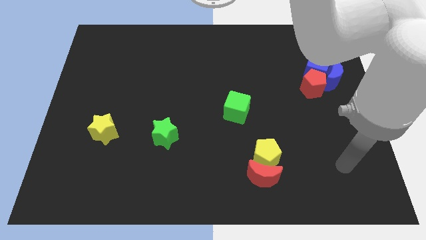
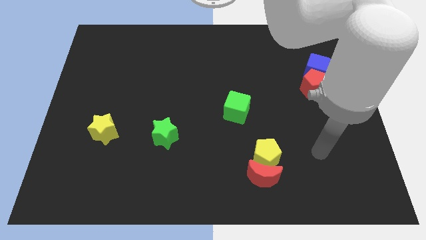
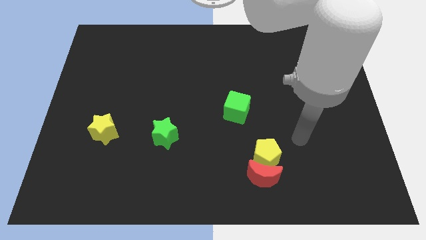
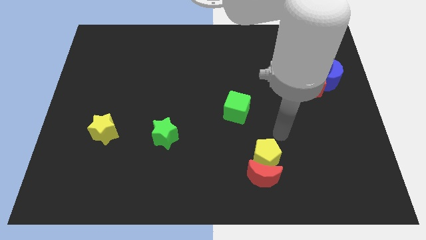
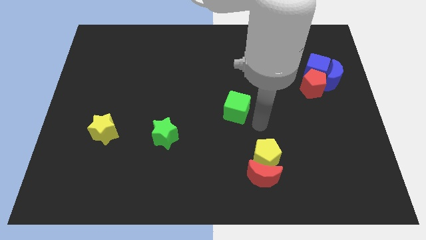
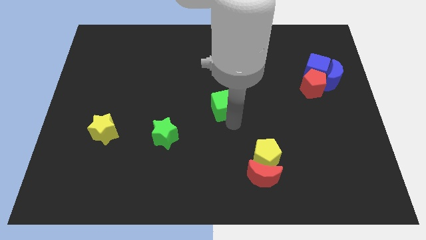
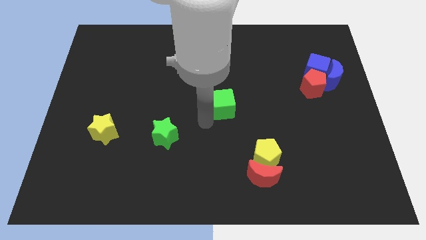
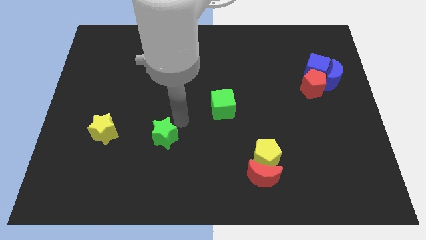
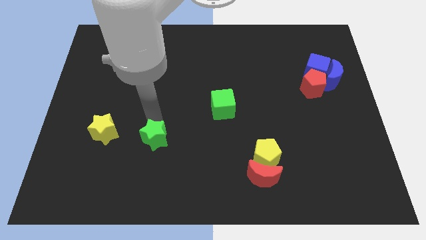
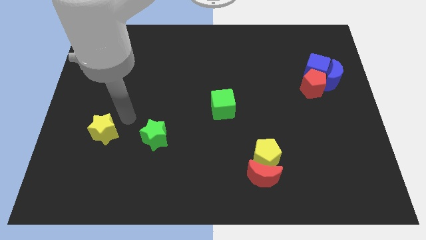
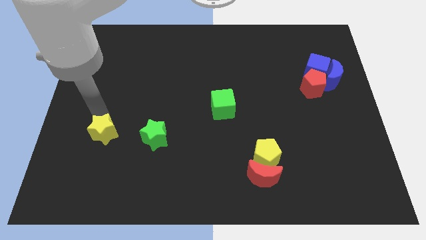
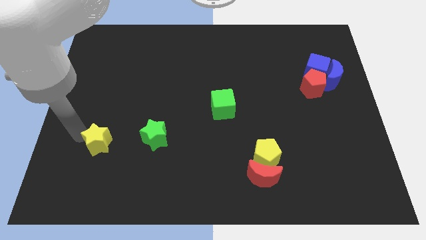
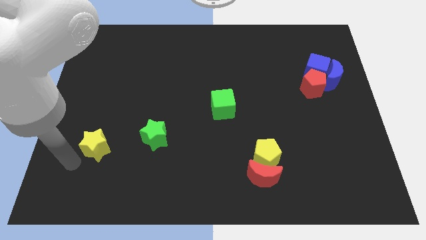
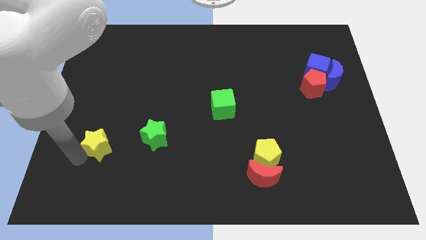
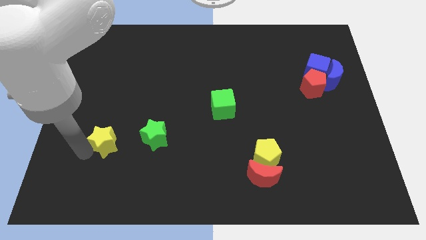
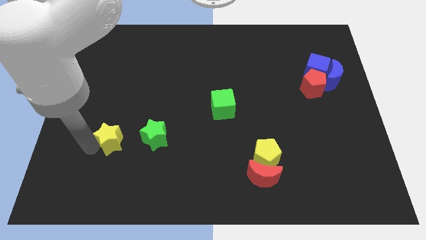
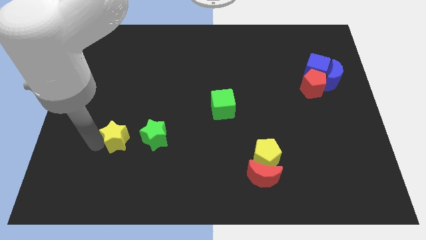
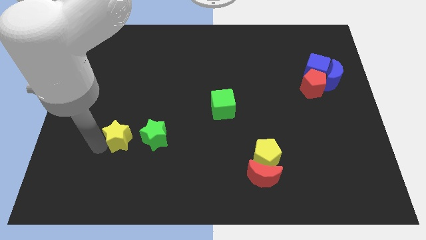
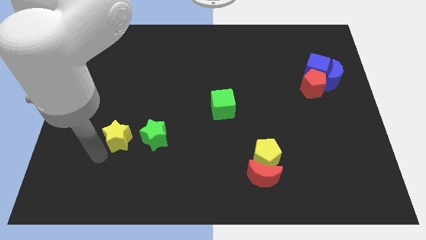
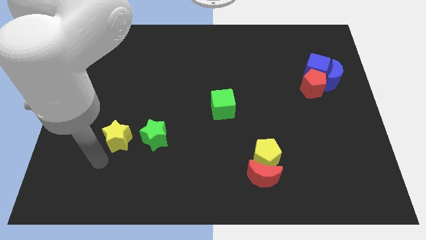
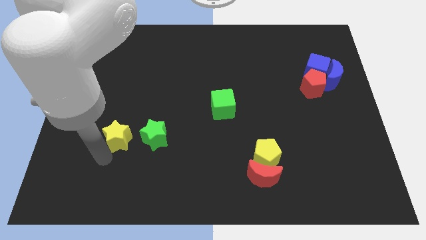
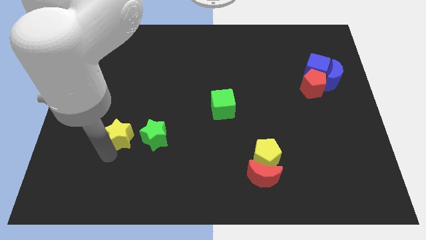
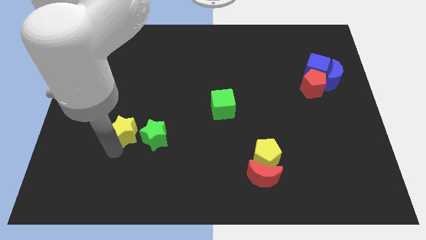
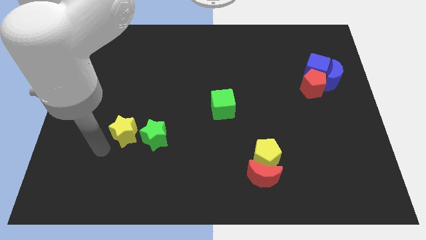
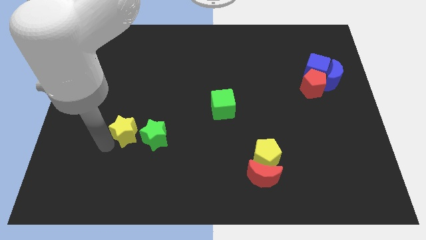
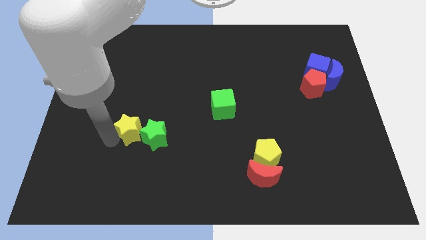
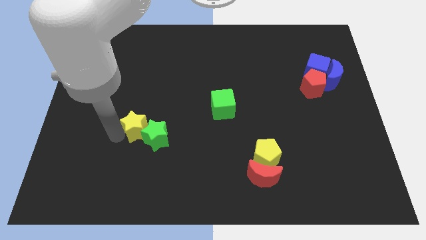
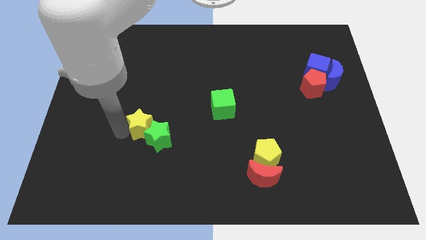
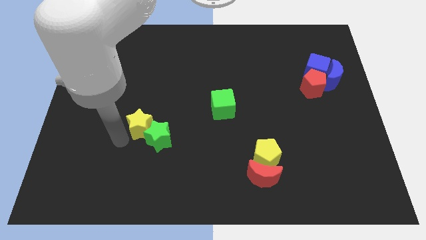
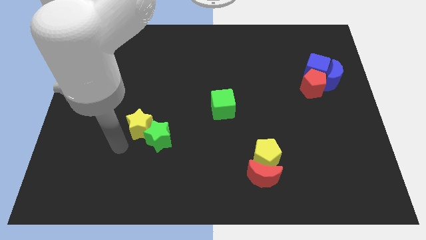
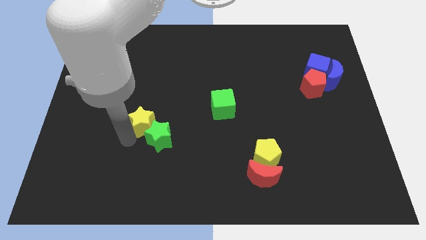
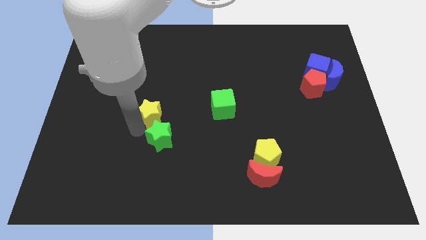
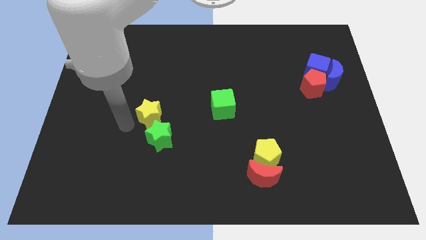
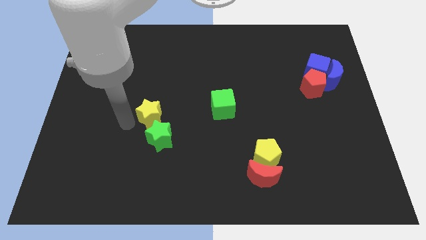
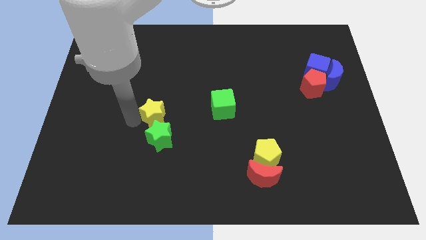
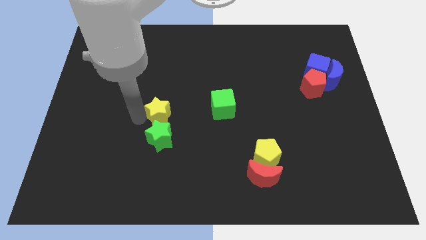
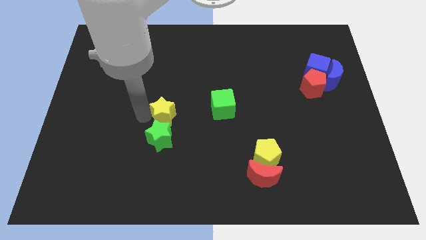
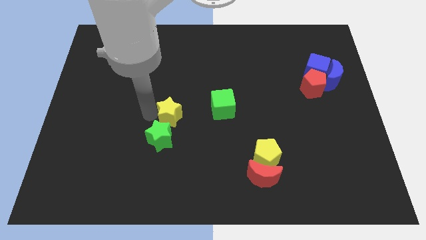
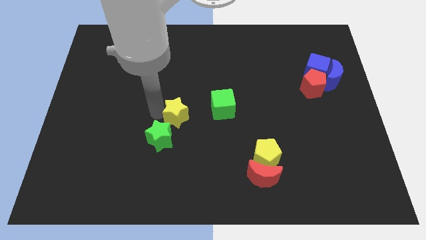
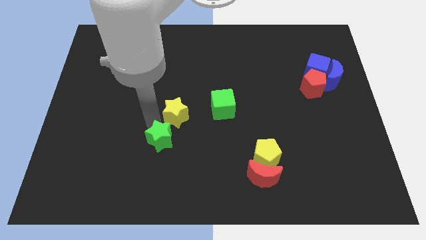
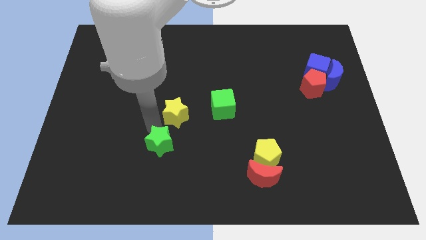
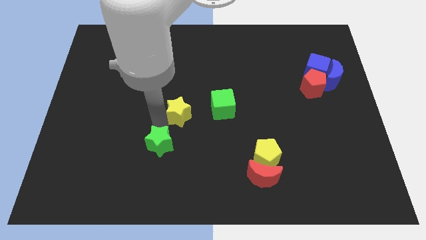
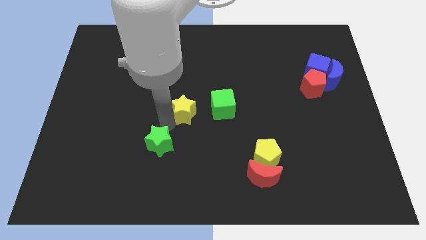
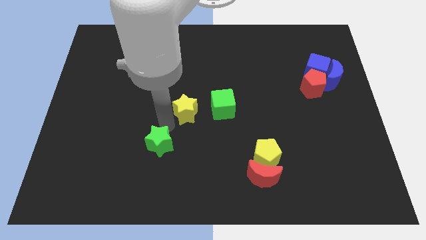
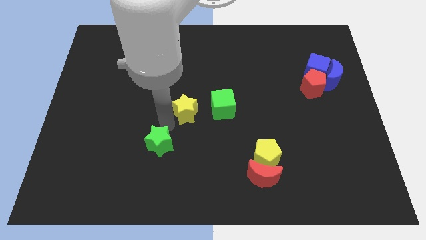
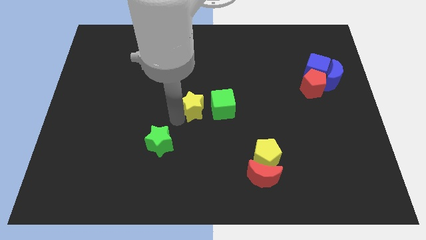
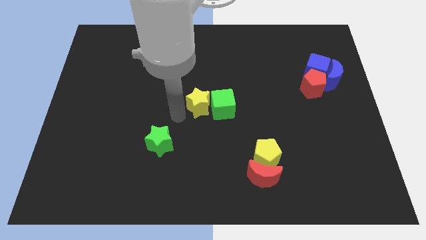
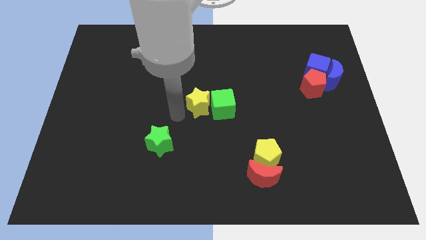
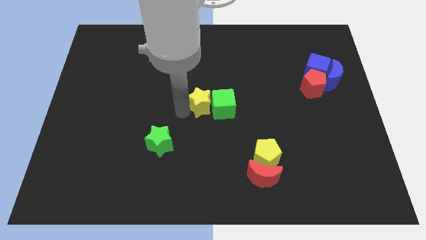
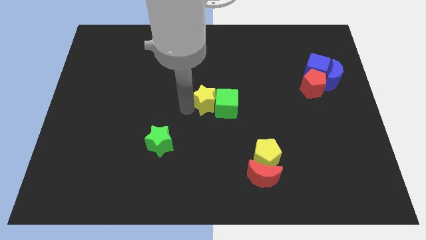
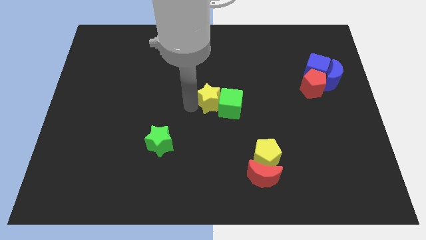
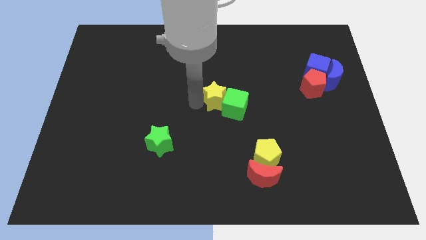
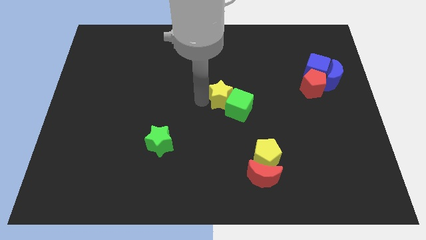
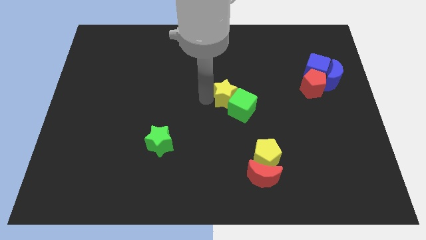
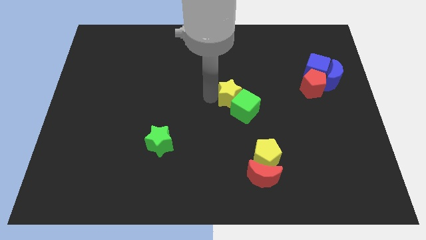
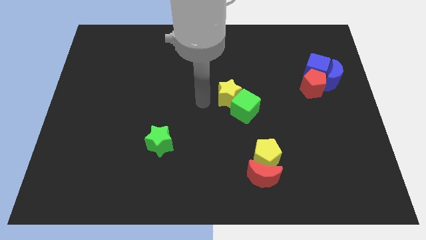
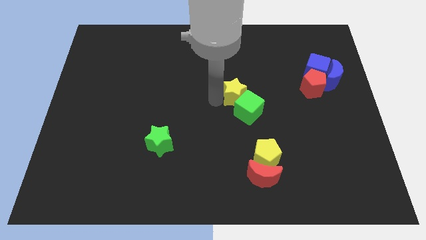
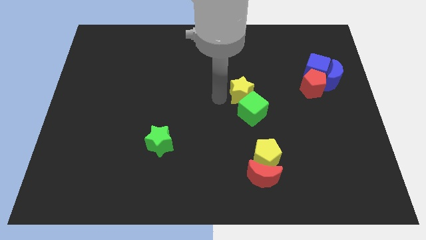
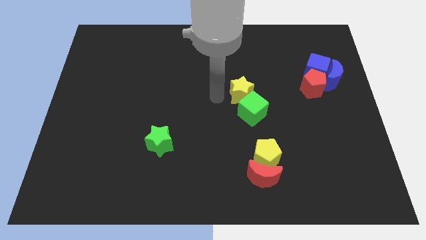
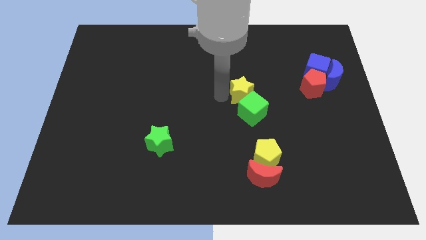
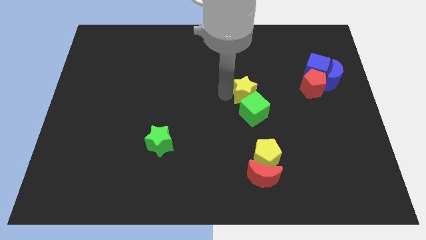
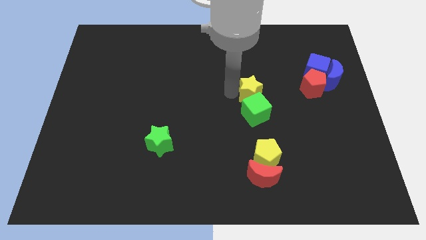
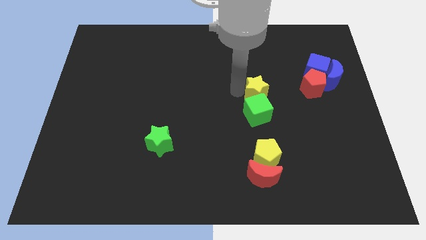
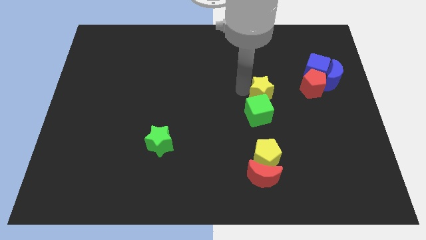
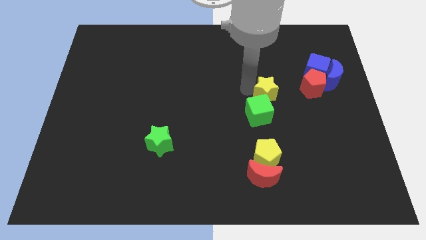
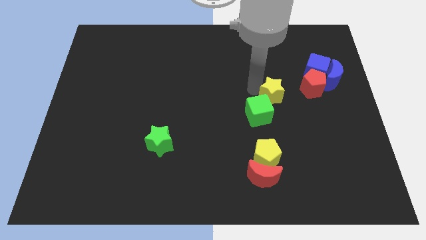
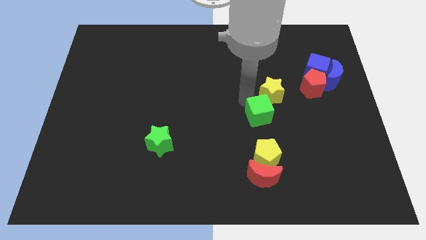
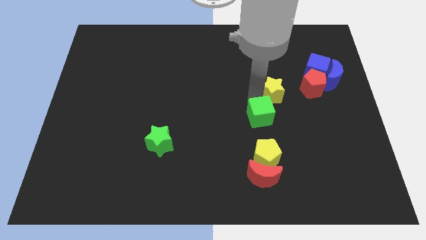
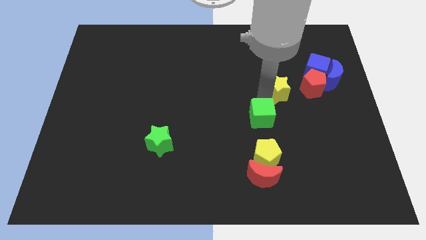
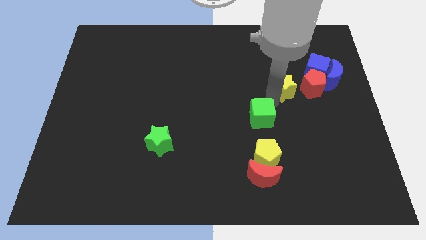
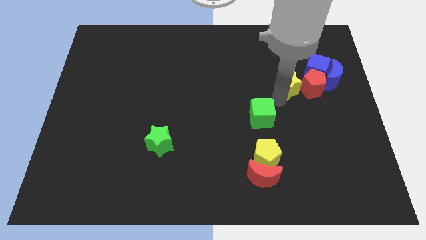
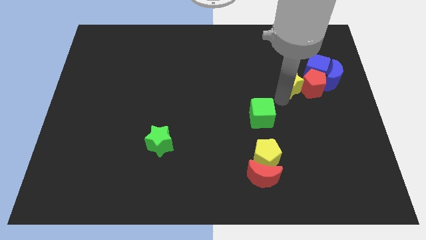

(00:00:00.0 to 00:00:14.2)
move the yellow star towards the red pentagon
